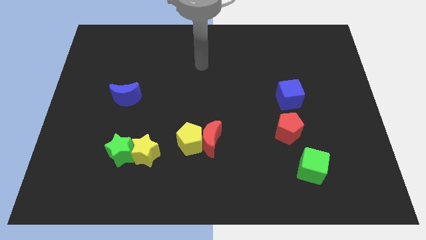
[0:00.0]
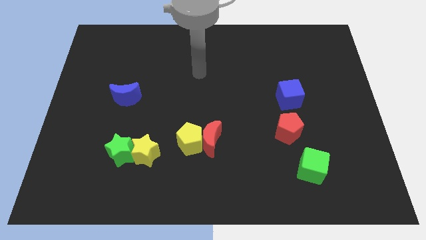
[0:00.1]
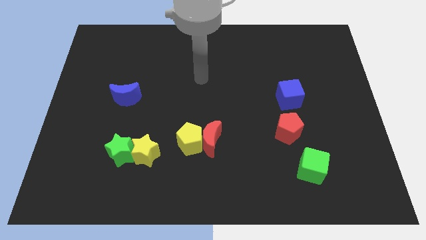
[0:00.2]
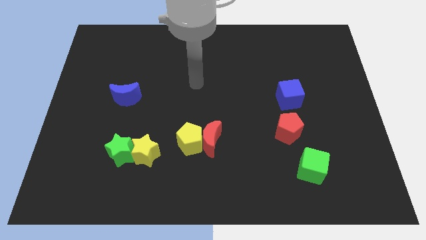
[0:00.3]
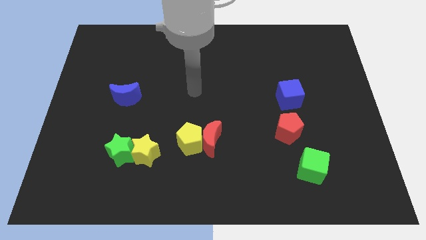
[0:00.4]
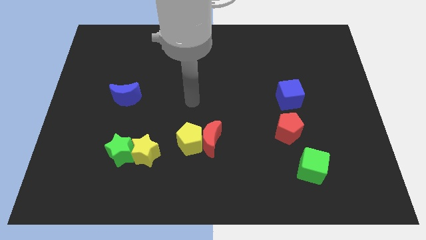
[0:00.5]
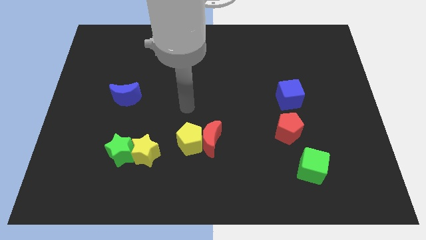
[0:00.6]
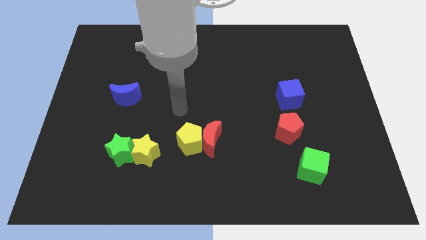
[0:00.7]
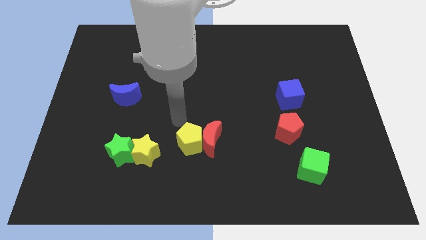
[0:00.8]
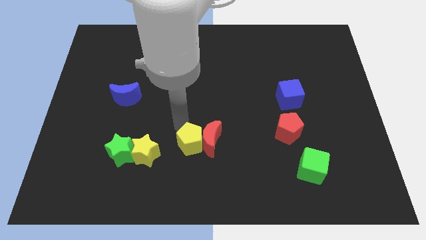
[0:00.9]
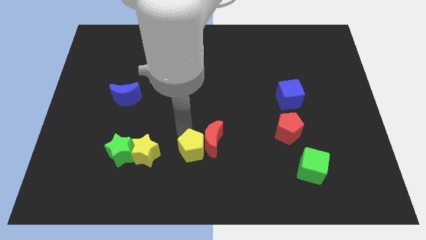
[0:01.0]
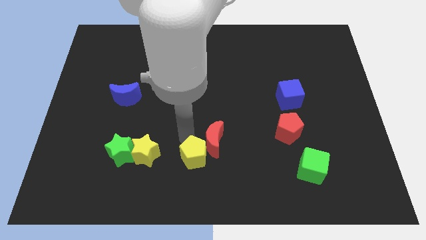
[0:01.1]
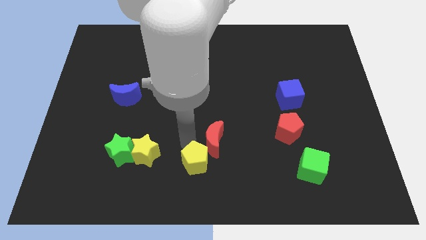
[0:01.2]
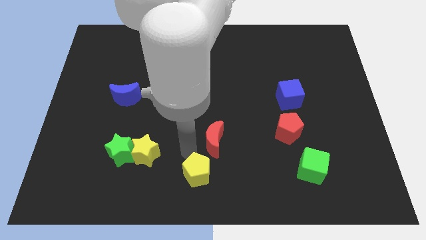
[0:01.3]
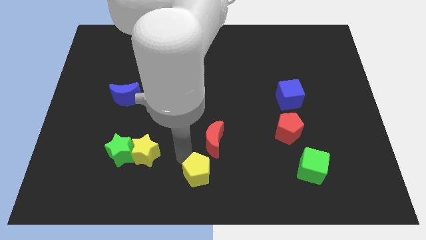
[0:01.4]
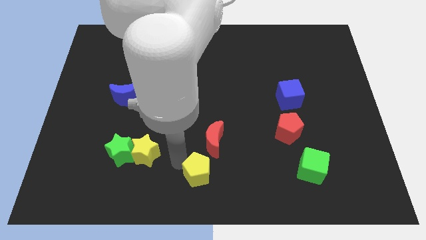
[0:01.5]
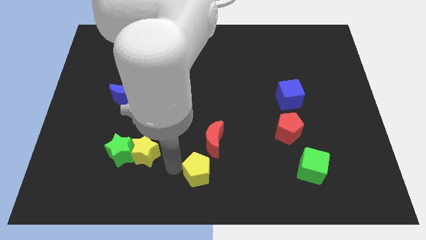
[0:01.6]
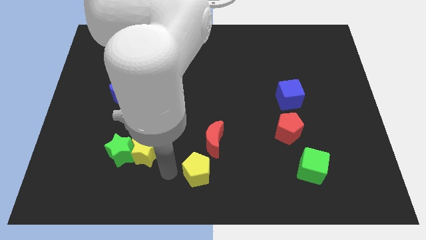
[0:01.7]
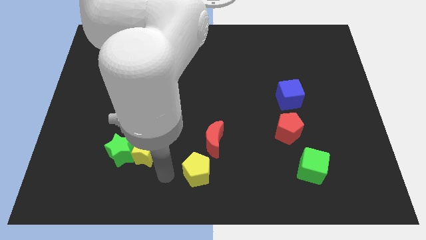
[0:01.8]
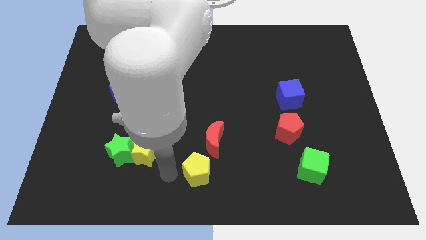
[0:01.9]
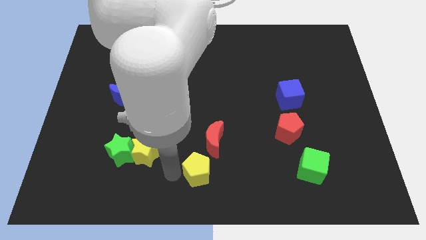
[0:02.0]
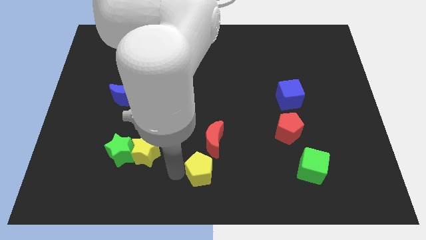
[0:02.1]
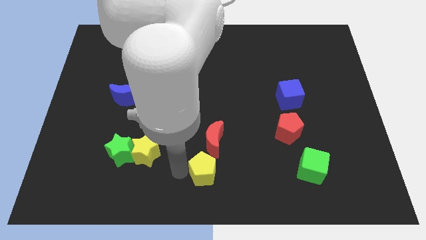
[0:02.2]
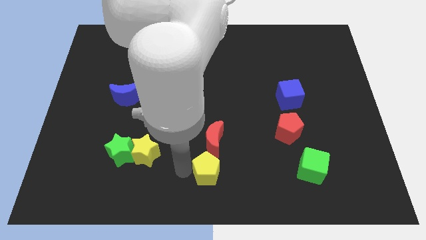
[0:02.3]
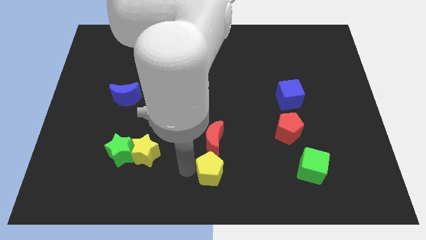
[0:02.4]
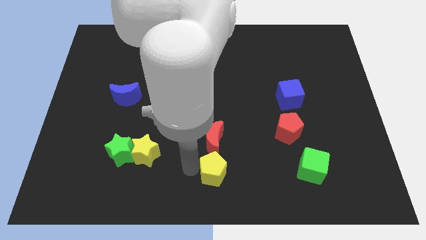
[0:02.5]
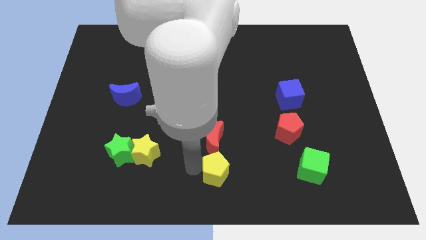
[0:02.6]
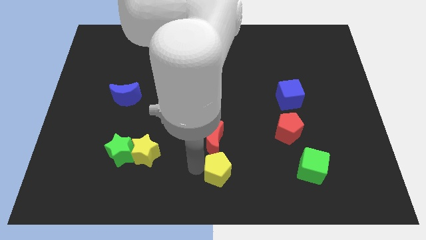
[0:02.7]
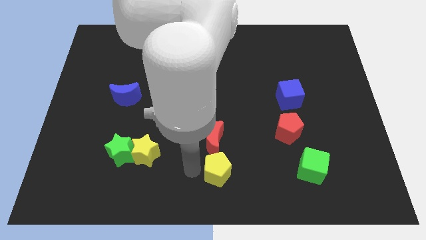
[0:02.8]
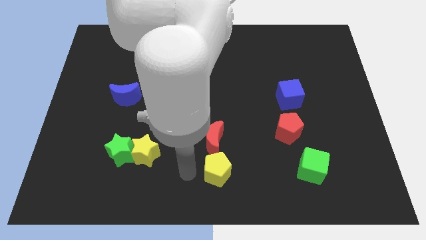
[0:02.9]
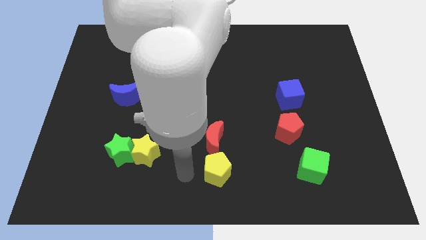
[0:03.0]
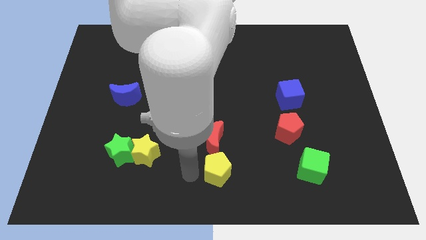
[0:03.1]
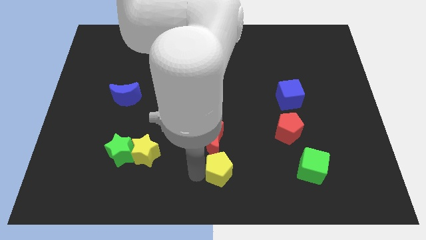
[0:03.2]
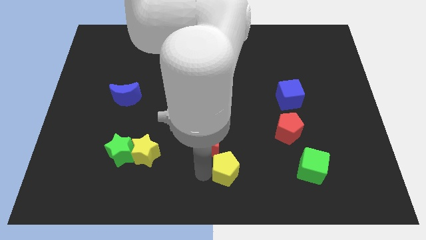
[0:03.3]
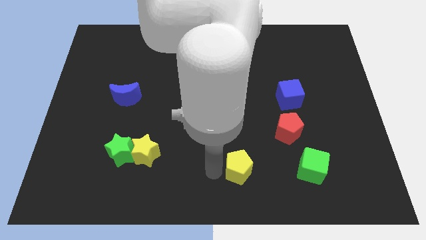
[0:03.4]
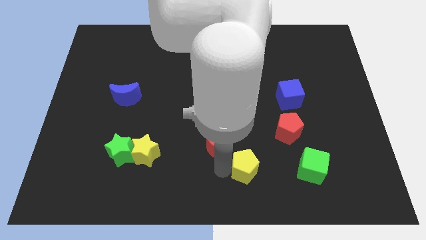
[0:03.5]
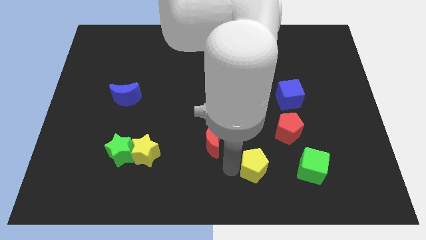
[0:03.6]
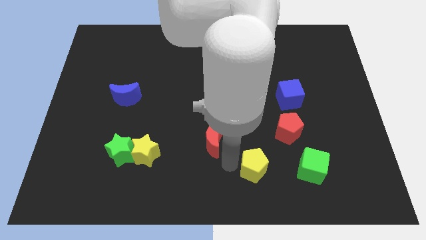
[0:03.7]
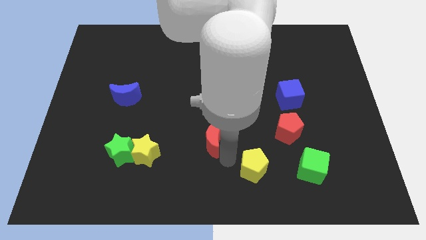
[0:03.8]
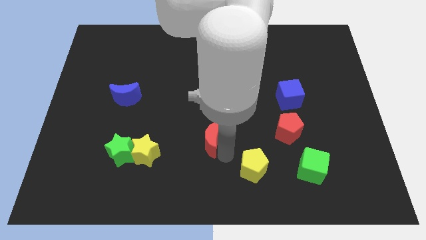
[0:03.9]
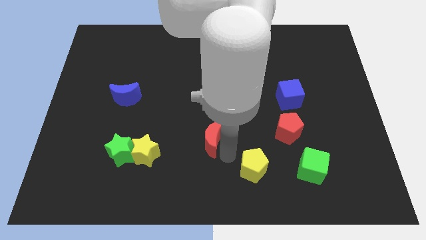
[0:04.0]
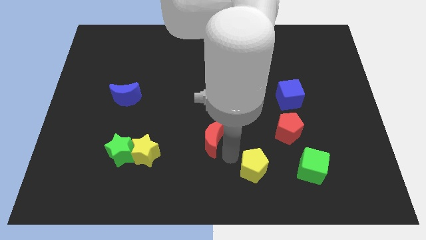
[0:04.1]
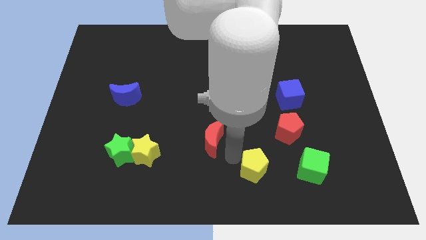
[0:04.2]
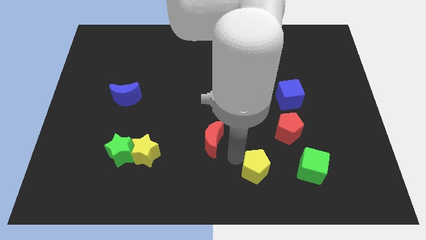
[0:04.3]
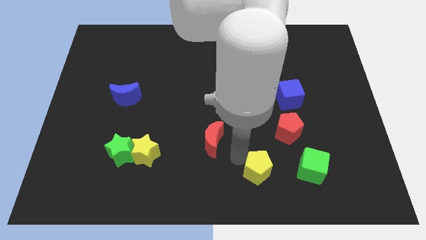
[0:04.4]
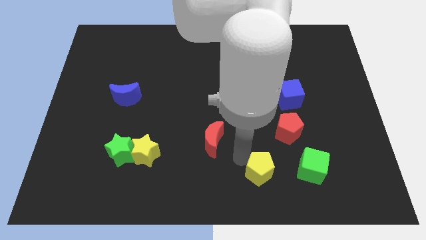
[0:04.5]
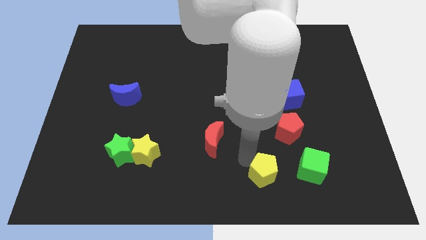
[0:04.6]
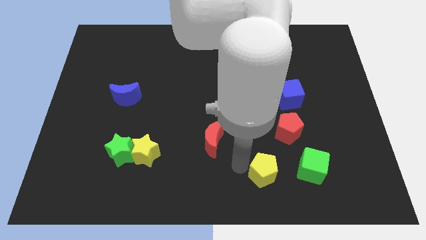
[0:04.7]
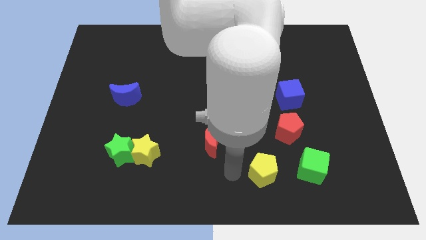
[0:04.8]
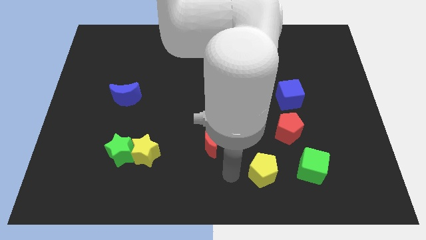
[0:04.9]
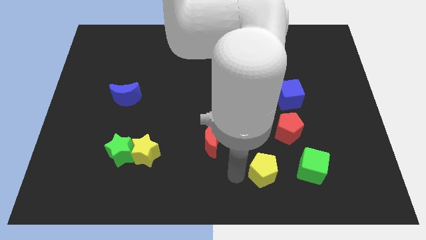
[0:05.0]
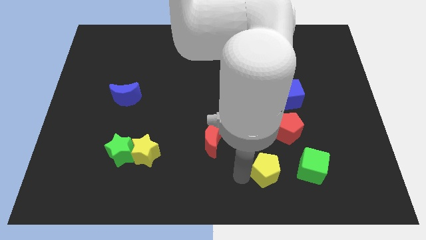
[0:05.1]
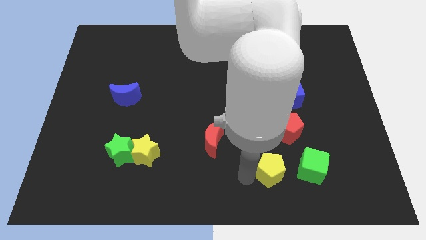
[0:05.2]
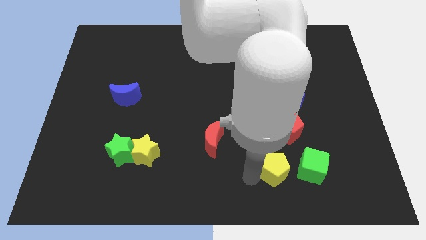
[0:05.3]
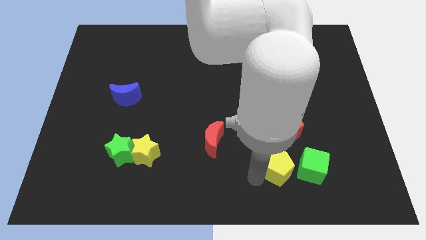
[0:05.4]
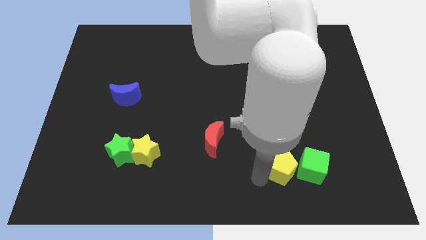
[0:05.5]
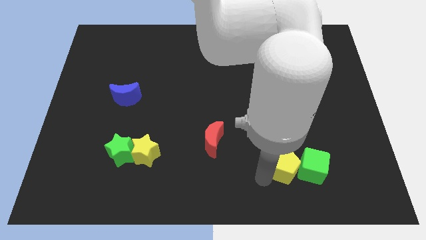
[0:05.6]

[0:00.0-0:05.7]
move the yellow pentagon next to the green cube

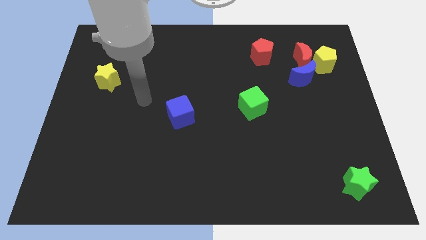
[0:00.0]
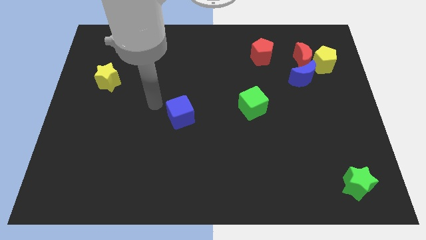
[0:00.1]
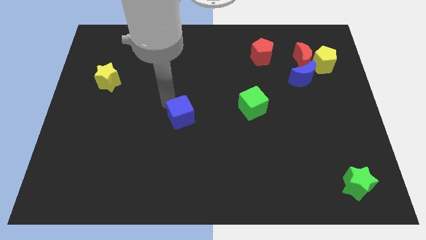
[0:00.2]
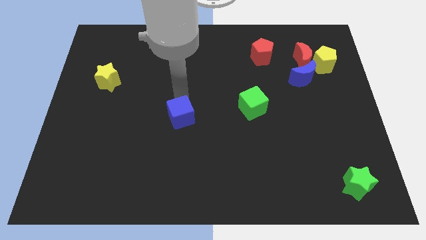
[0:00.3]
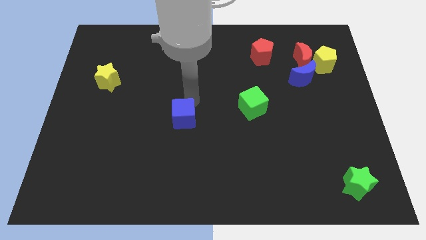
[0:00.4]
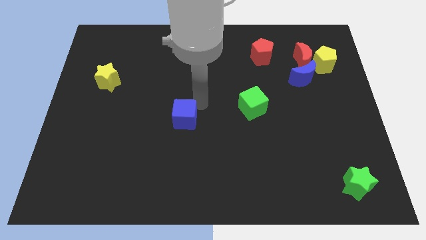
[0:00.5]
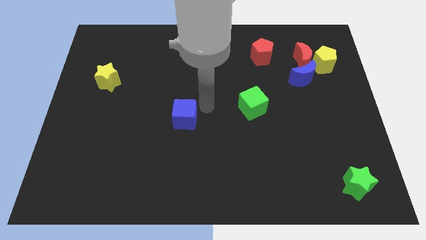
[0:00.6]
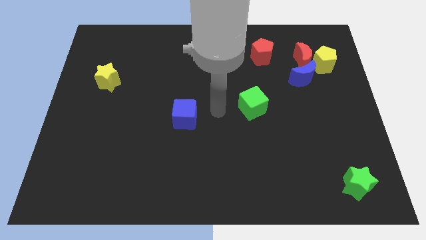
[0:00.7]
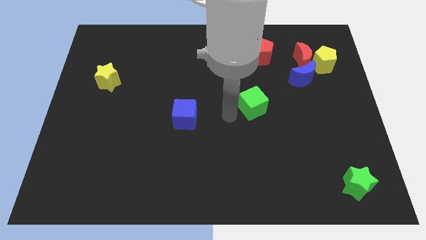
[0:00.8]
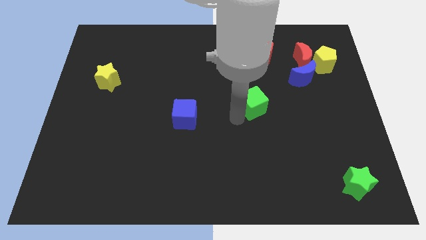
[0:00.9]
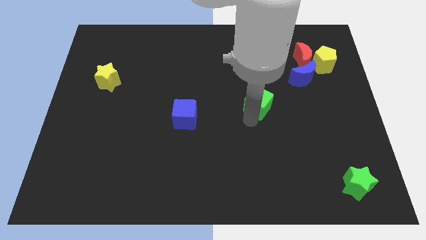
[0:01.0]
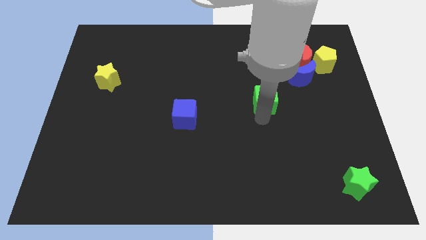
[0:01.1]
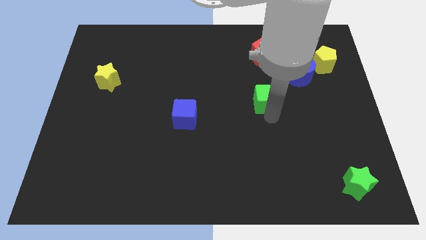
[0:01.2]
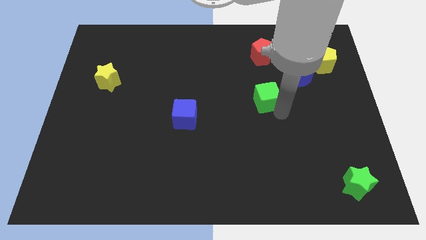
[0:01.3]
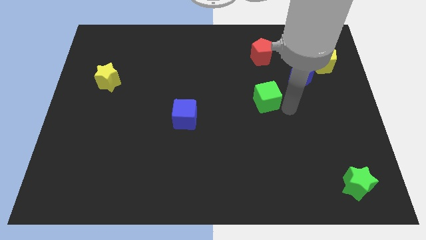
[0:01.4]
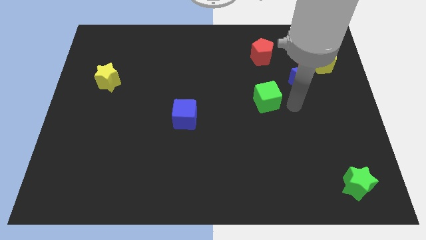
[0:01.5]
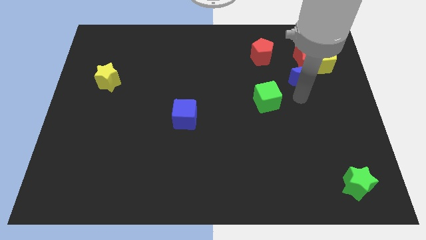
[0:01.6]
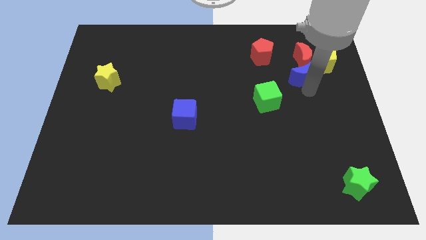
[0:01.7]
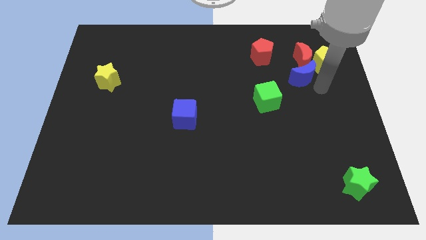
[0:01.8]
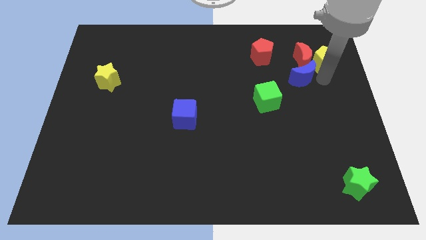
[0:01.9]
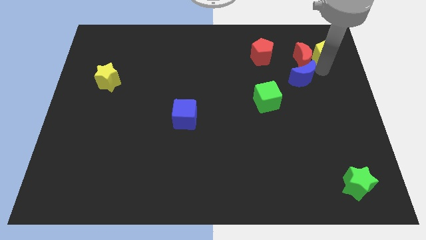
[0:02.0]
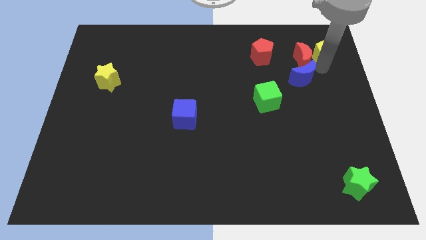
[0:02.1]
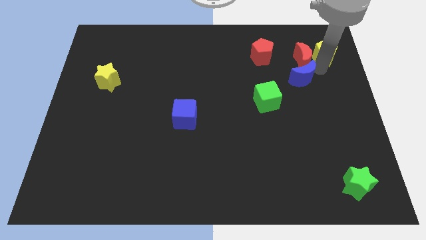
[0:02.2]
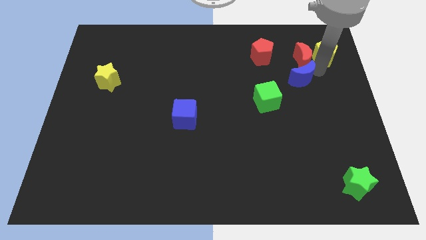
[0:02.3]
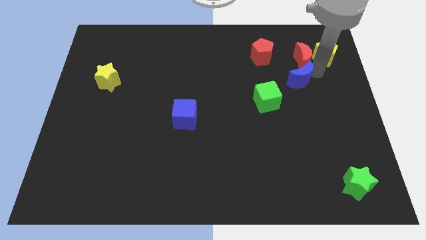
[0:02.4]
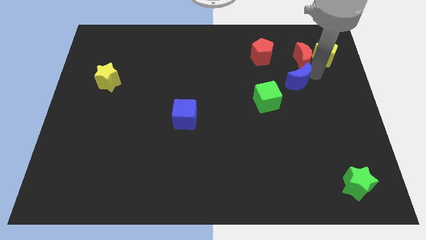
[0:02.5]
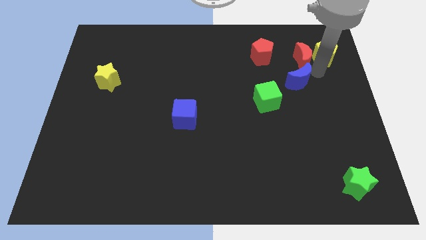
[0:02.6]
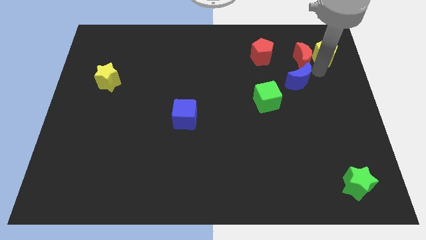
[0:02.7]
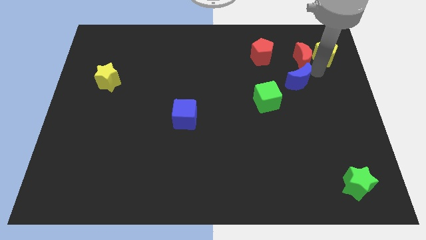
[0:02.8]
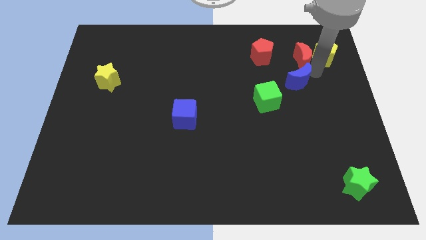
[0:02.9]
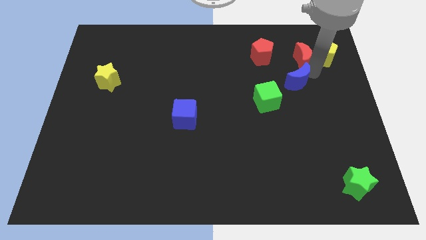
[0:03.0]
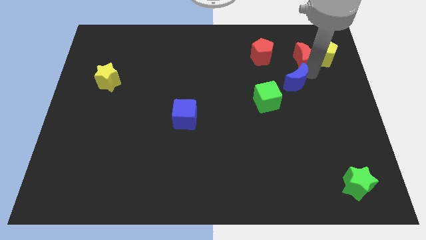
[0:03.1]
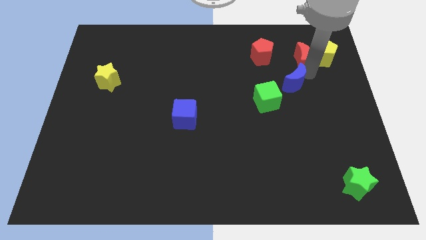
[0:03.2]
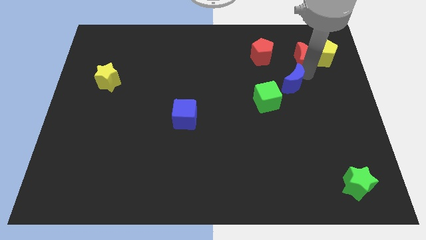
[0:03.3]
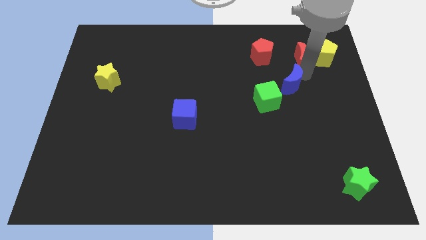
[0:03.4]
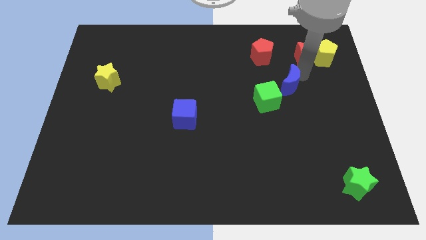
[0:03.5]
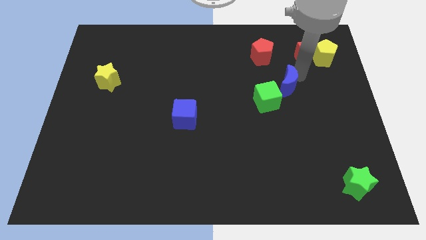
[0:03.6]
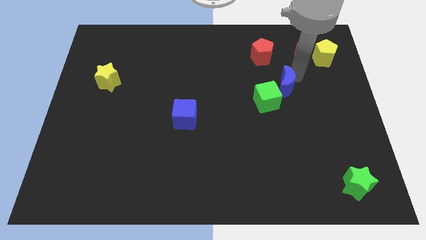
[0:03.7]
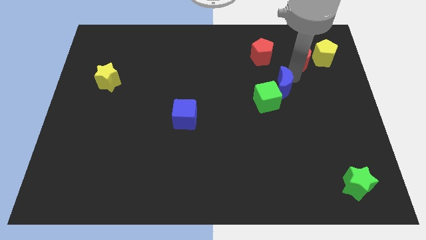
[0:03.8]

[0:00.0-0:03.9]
put the blue moon towards the green cube
